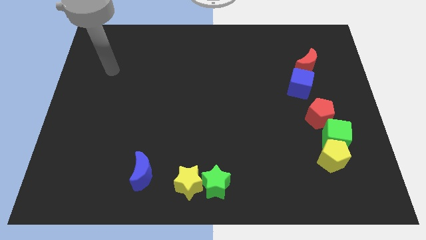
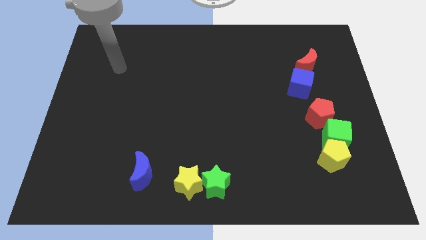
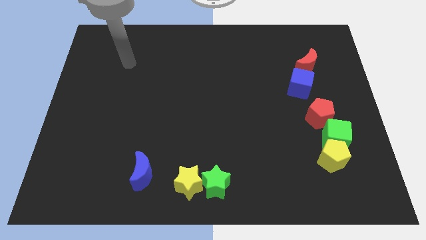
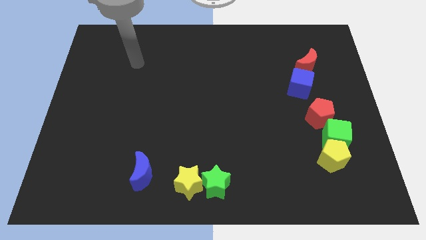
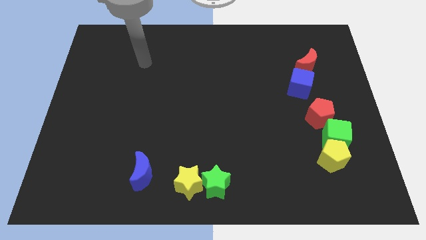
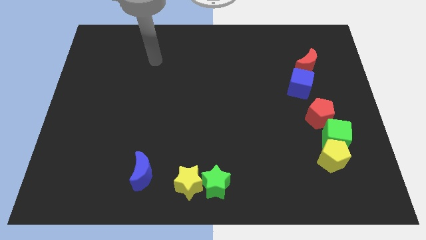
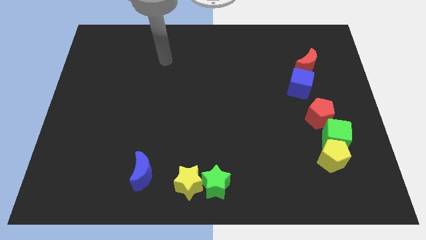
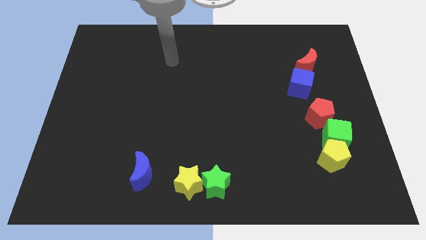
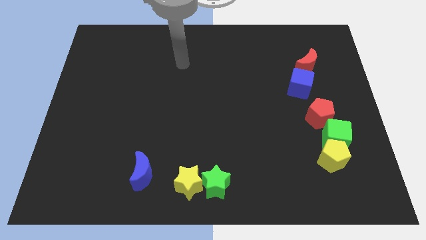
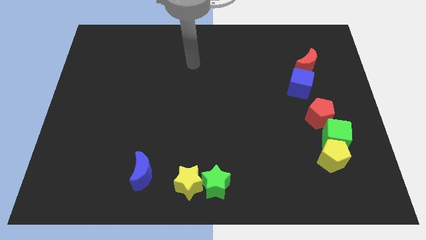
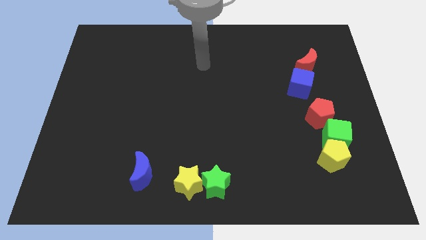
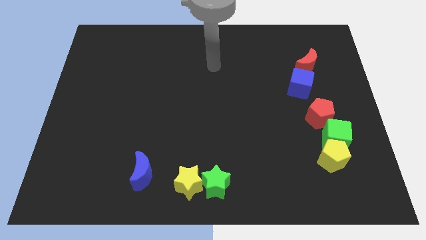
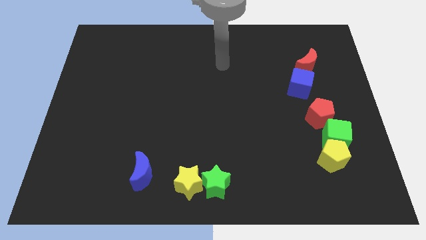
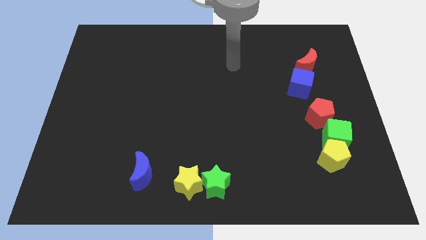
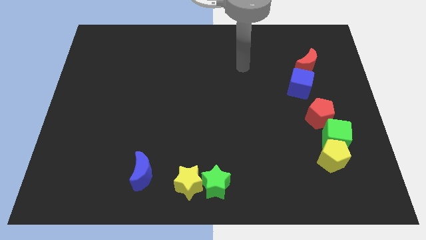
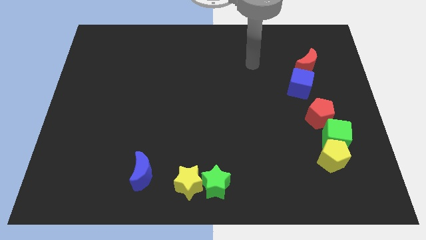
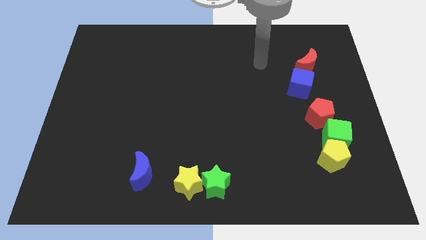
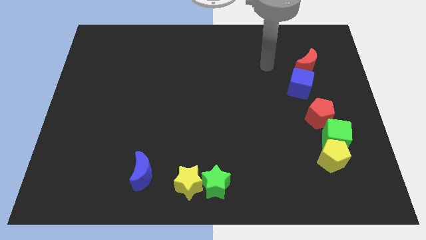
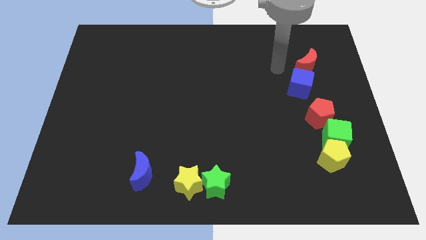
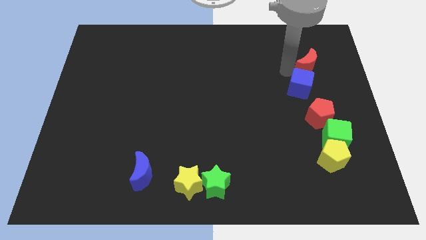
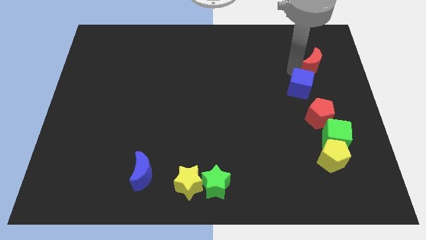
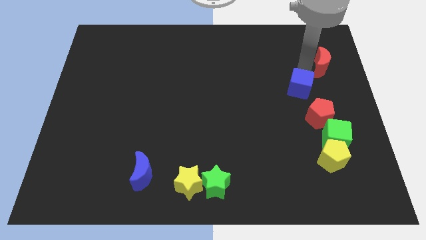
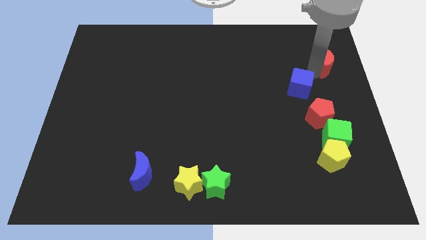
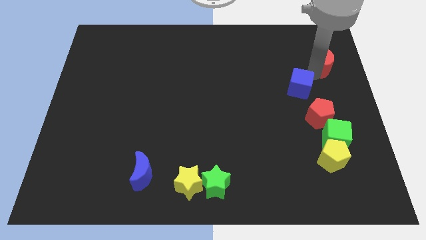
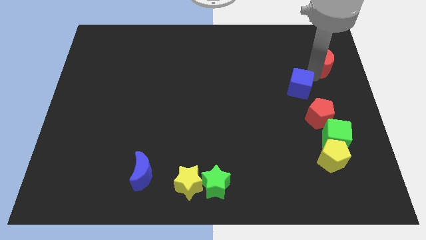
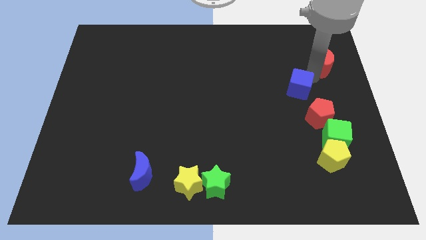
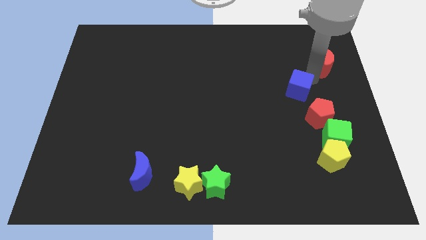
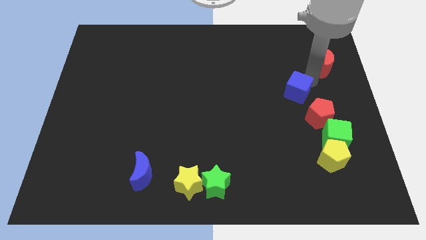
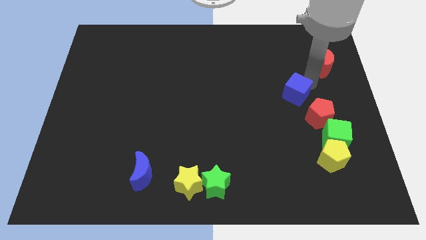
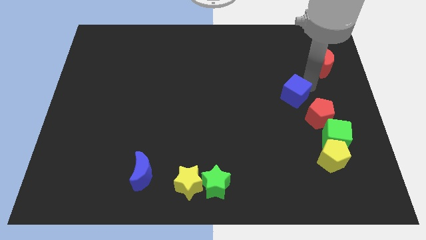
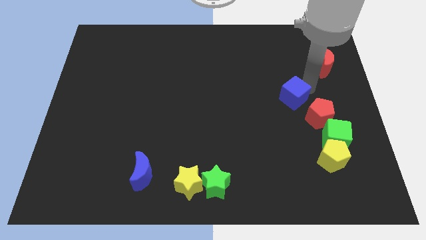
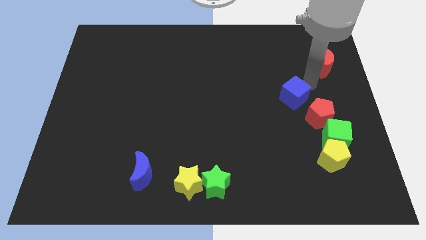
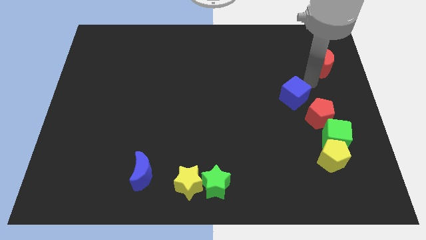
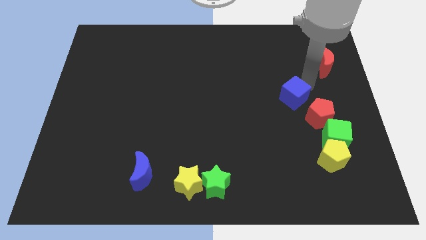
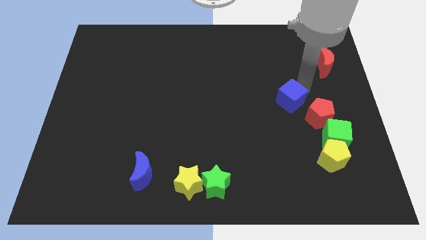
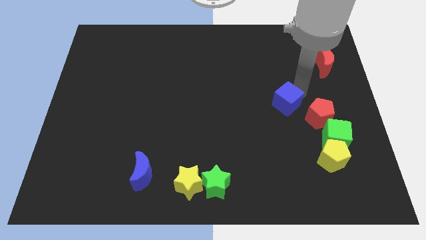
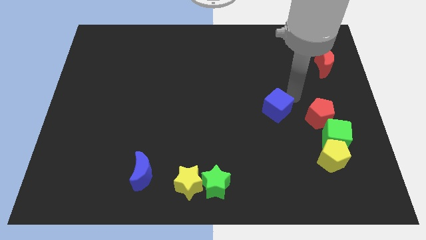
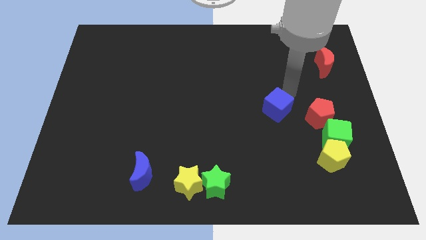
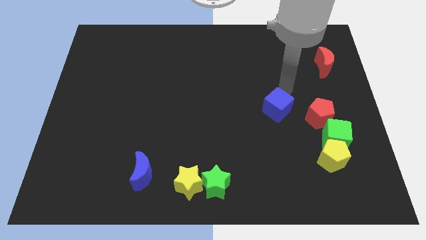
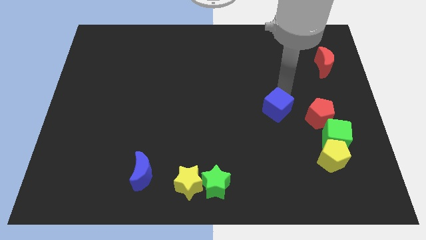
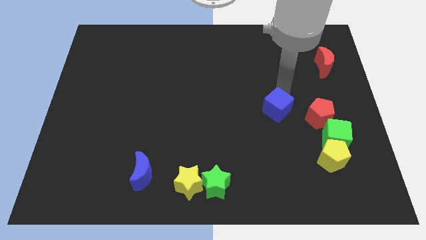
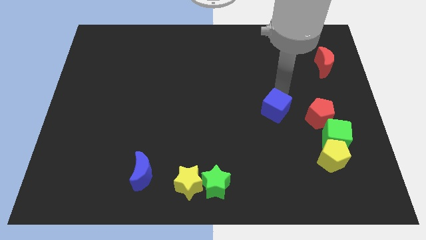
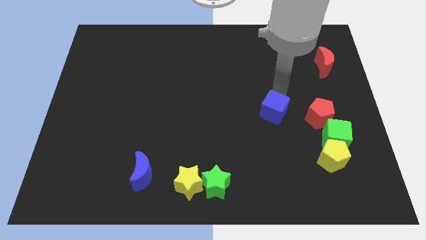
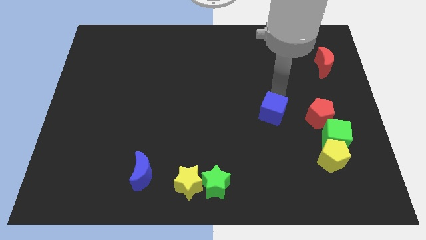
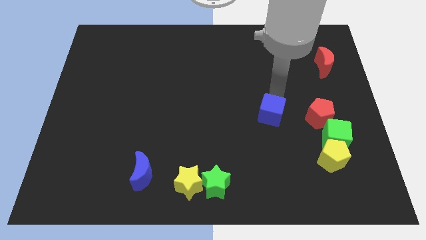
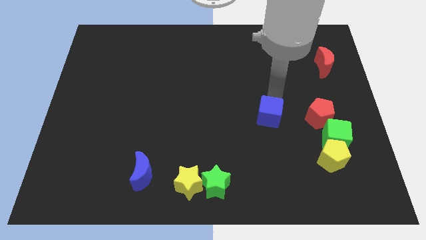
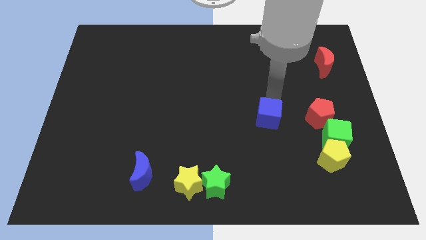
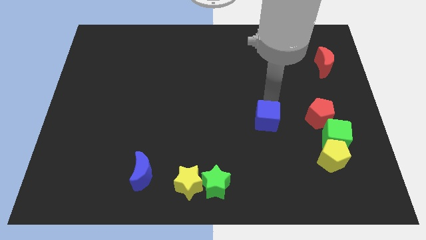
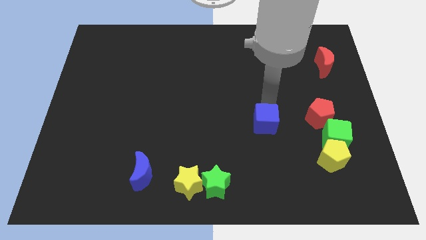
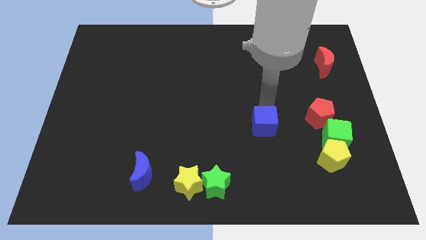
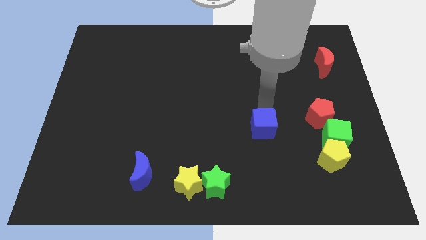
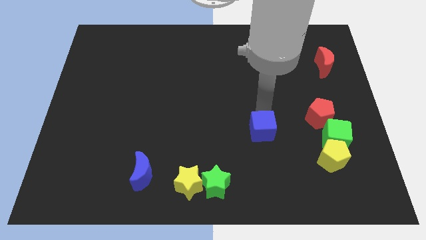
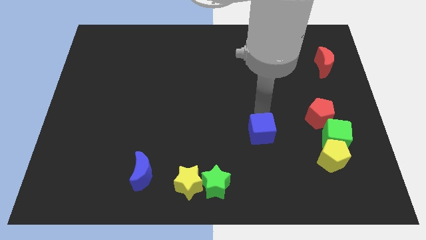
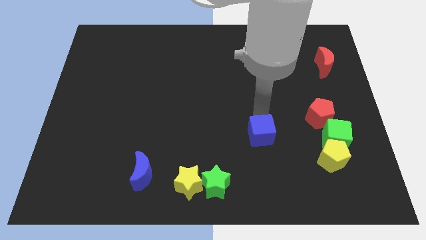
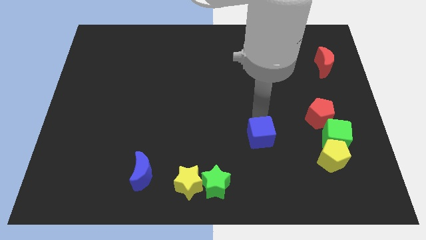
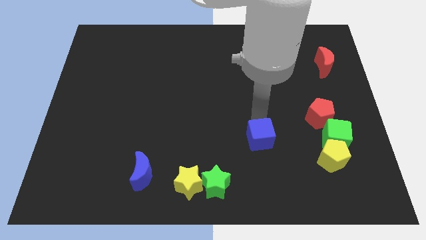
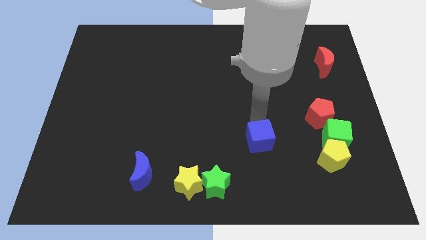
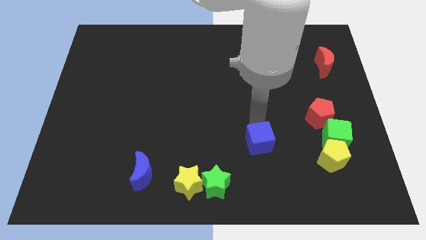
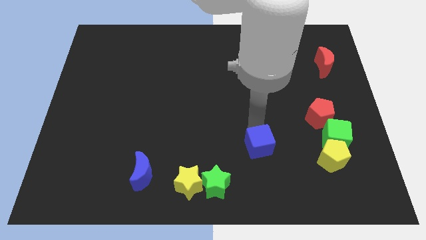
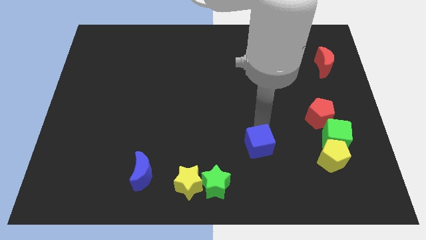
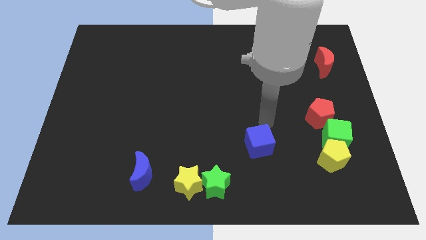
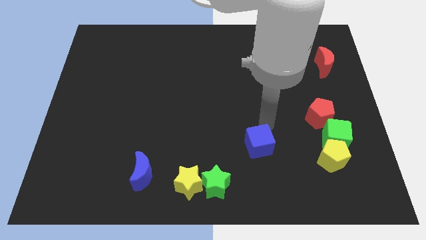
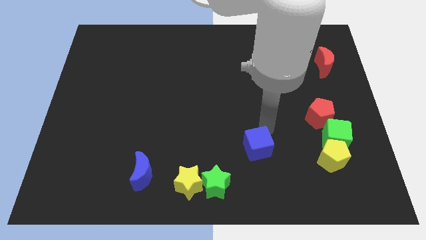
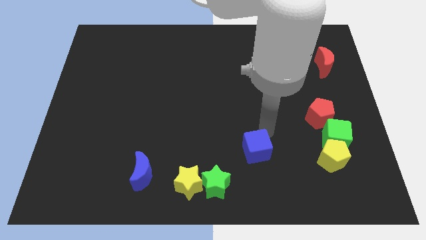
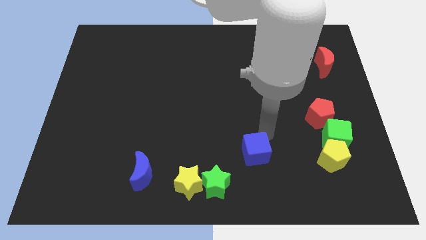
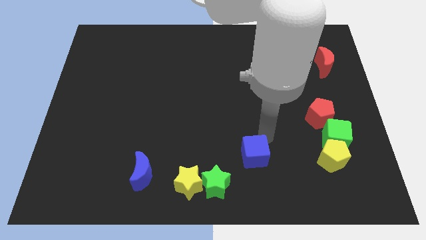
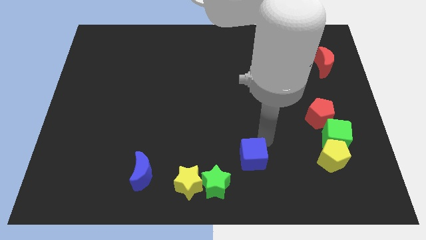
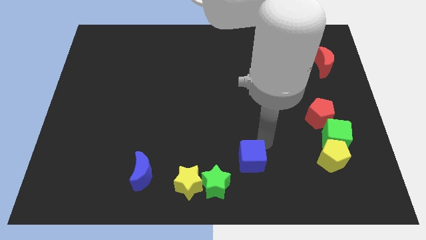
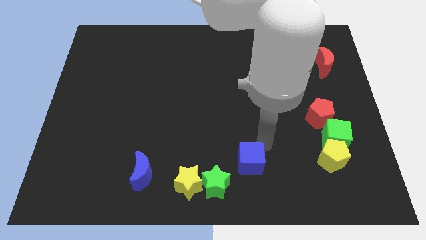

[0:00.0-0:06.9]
push the blue cube to the bottom side

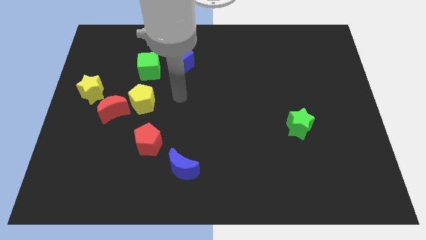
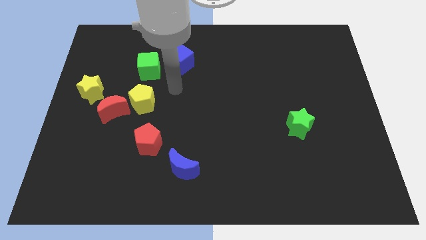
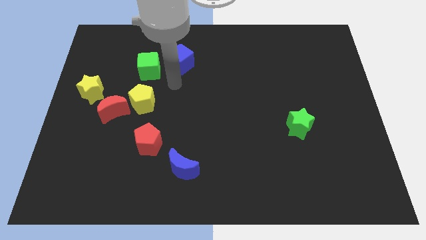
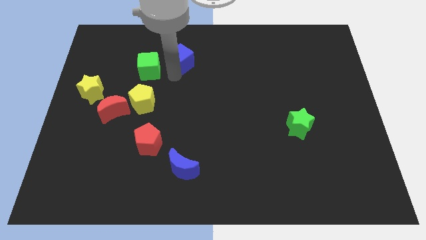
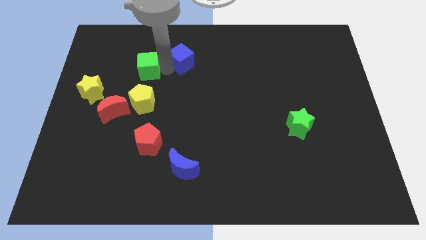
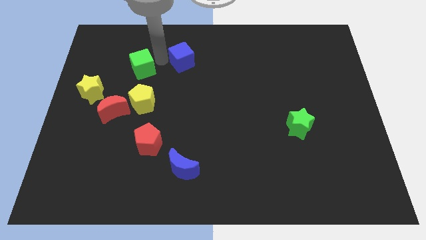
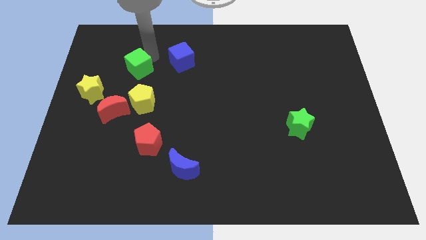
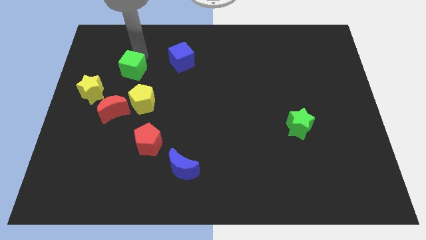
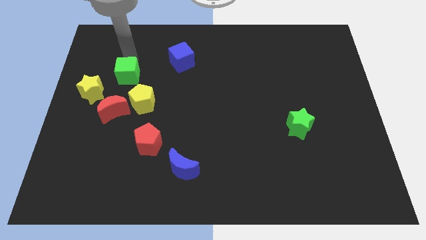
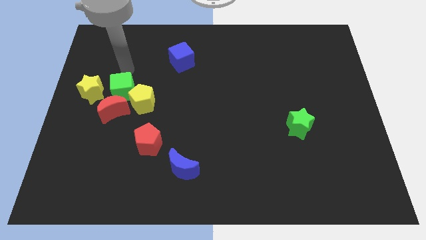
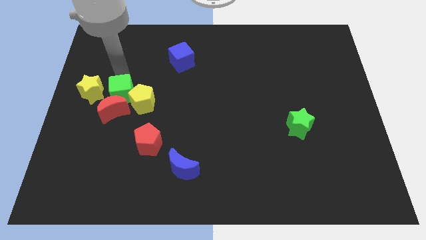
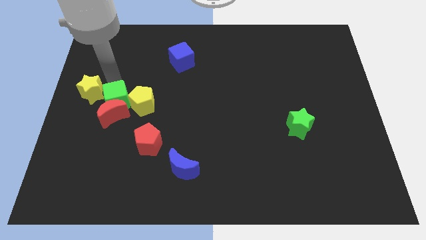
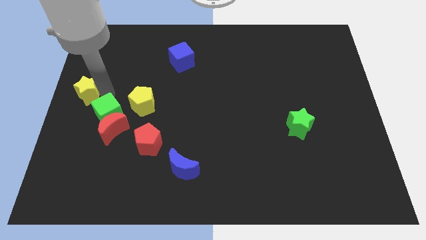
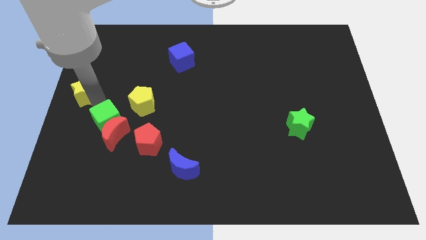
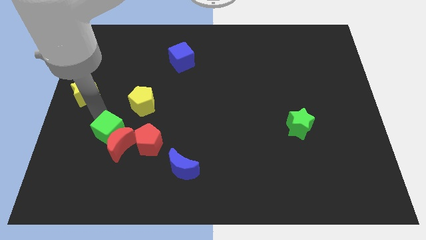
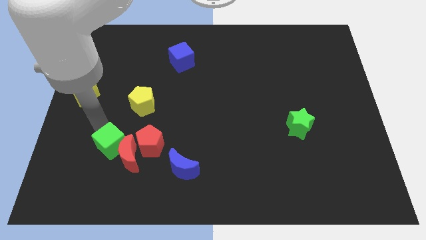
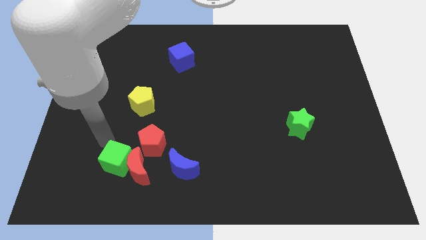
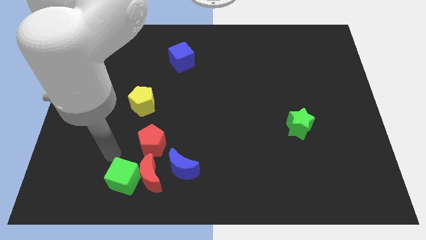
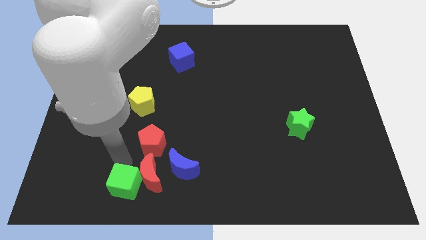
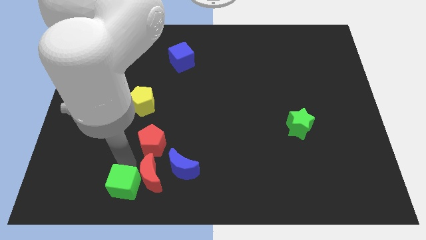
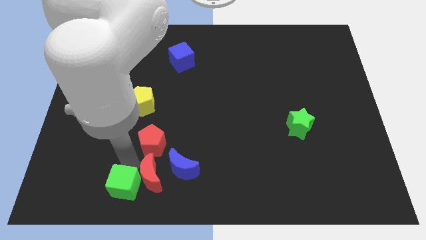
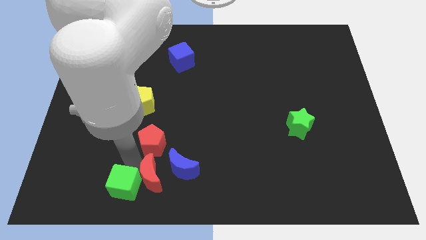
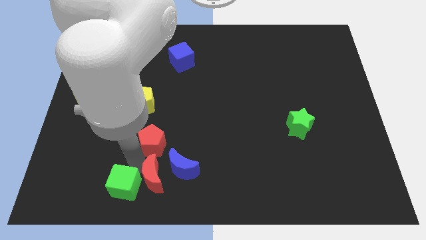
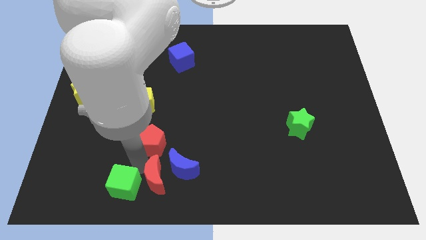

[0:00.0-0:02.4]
put the red moon to the bottom side
